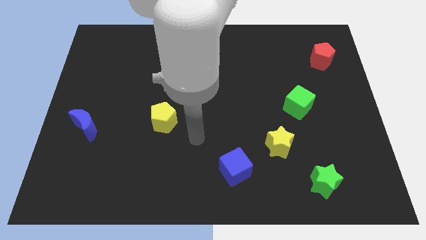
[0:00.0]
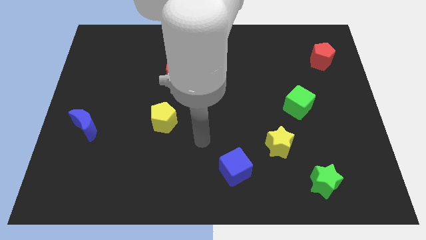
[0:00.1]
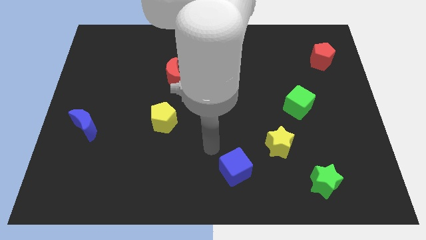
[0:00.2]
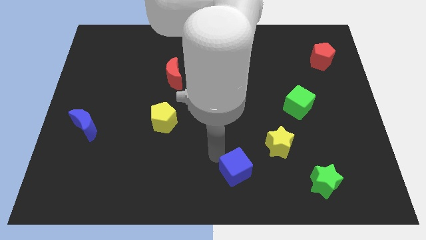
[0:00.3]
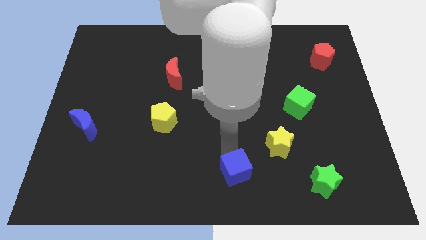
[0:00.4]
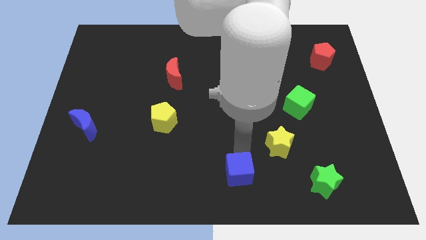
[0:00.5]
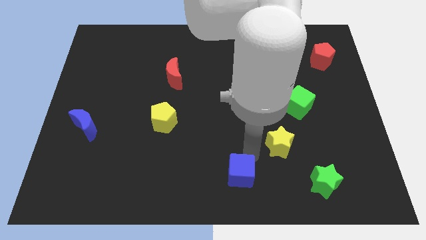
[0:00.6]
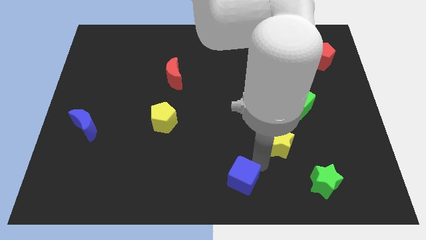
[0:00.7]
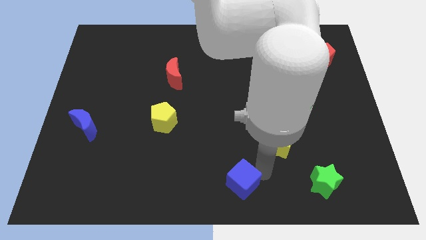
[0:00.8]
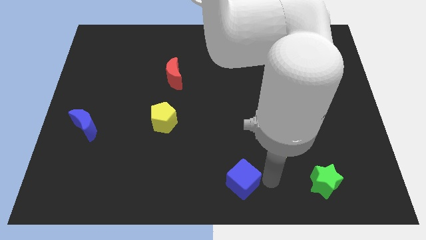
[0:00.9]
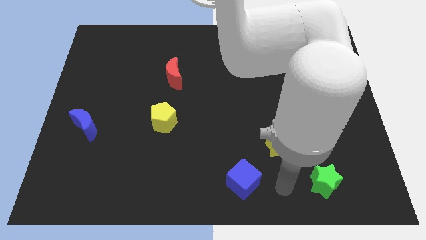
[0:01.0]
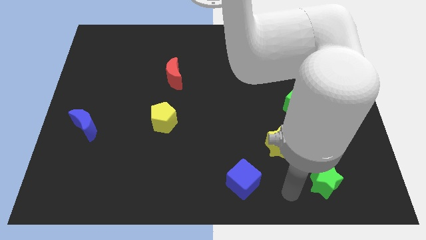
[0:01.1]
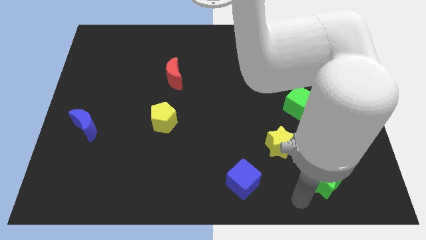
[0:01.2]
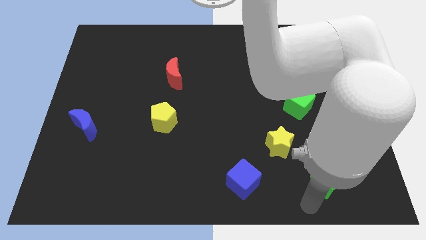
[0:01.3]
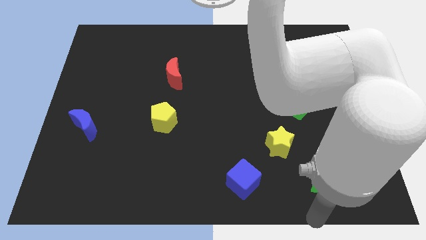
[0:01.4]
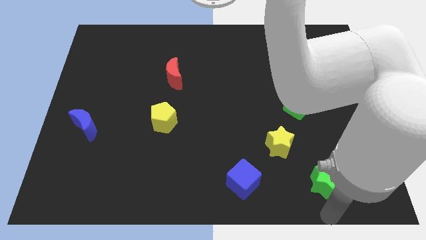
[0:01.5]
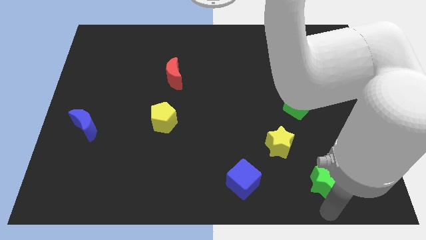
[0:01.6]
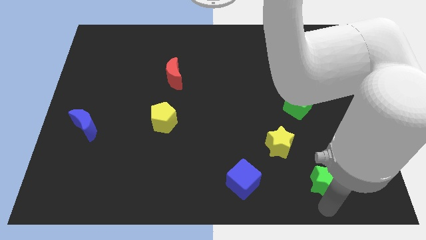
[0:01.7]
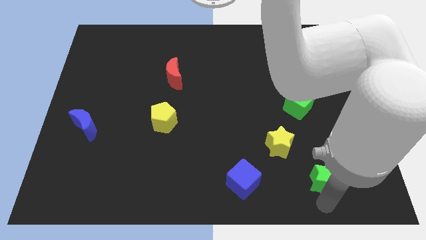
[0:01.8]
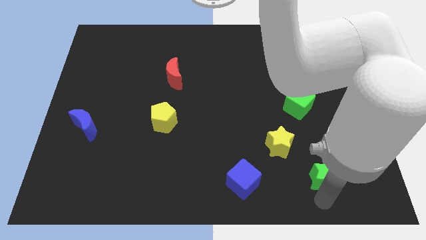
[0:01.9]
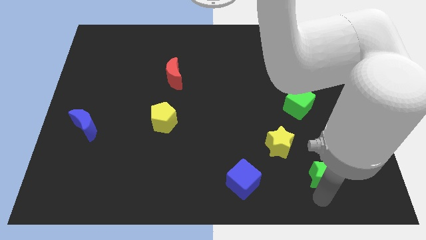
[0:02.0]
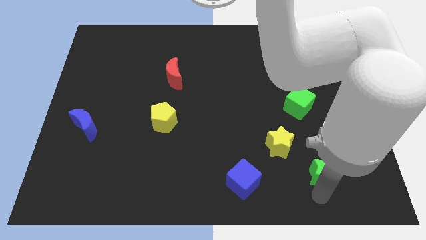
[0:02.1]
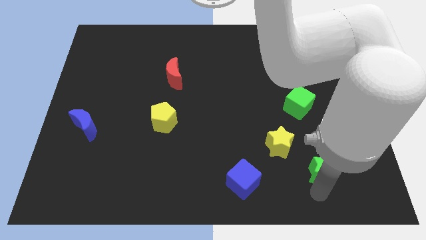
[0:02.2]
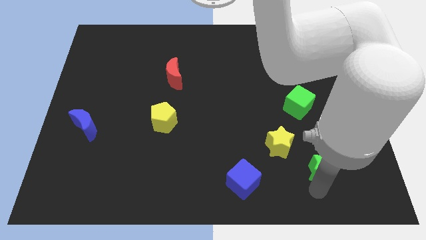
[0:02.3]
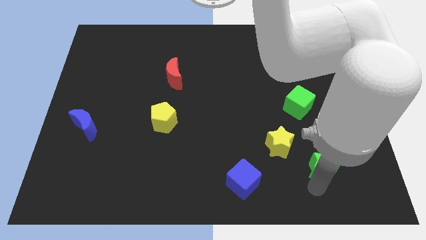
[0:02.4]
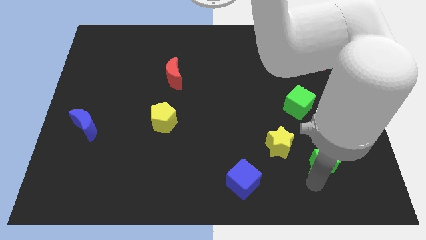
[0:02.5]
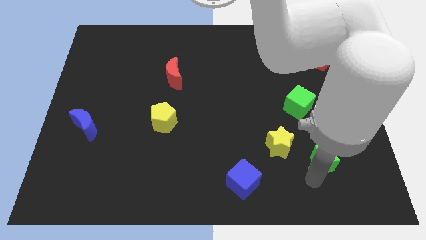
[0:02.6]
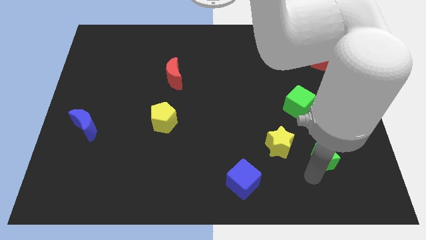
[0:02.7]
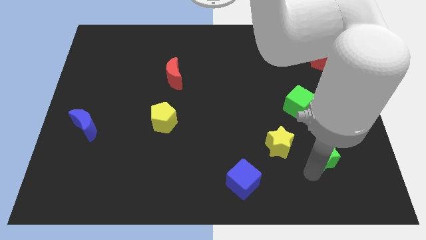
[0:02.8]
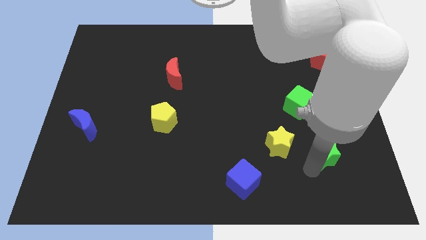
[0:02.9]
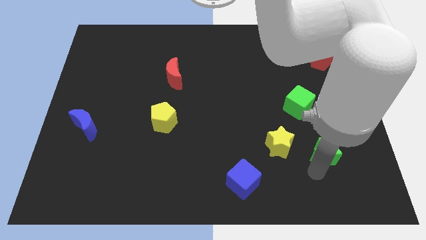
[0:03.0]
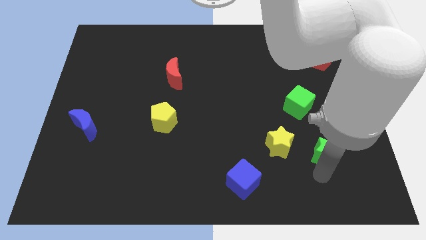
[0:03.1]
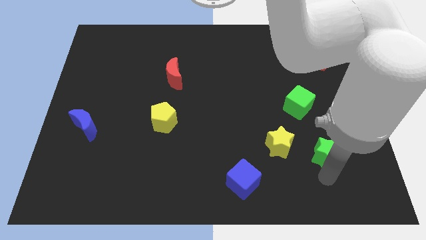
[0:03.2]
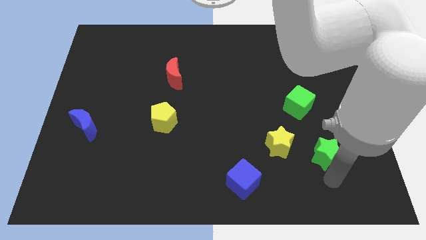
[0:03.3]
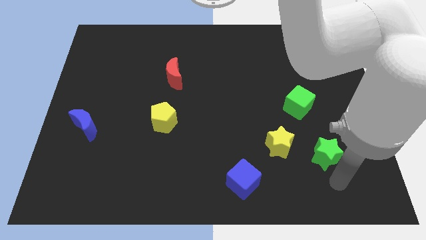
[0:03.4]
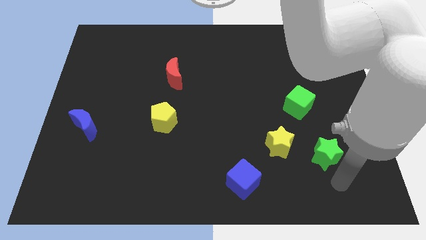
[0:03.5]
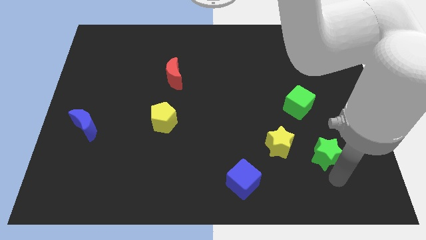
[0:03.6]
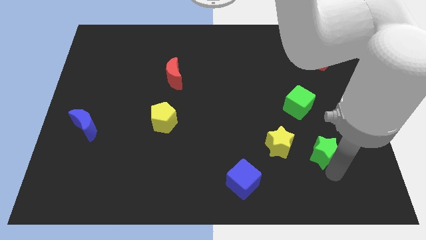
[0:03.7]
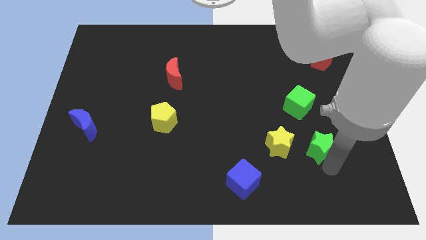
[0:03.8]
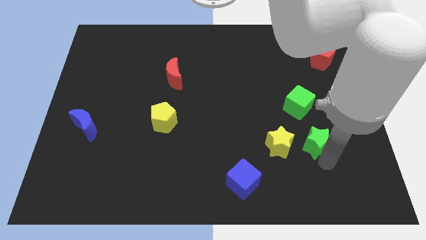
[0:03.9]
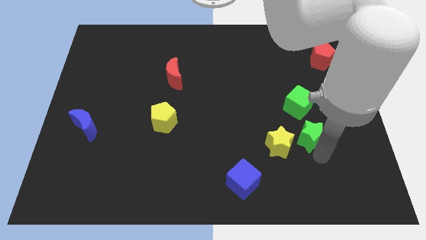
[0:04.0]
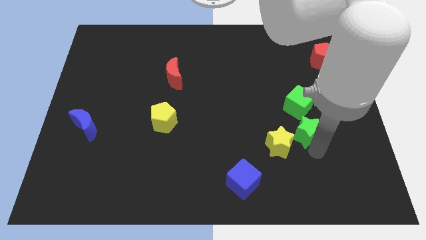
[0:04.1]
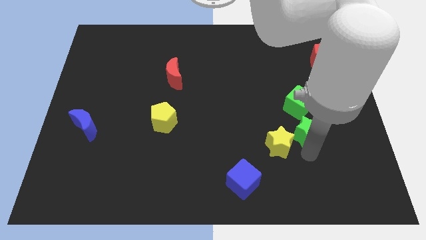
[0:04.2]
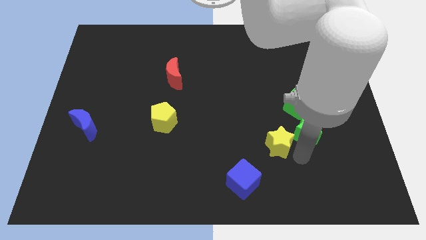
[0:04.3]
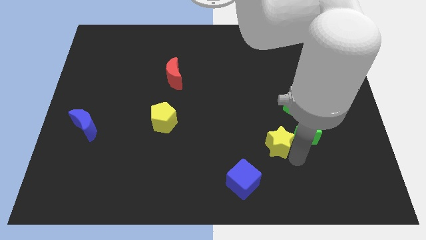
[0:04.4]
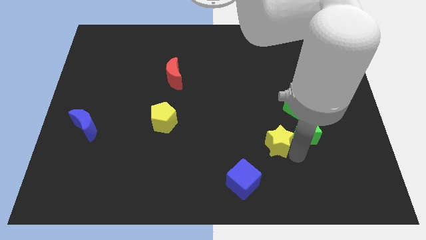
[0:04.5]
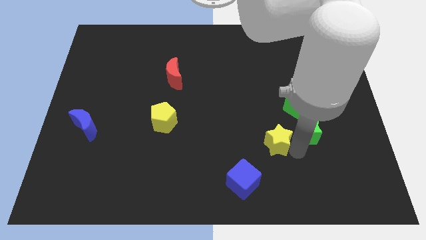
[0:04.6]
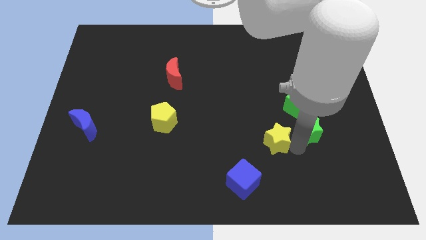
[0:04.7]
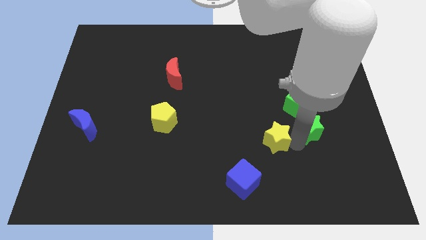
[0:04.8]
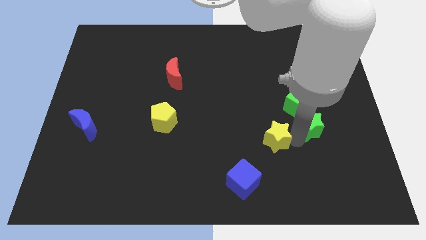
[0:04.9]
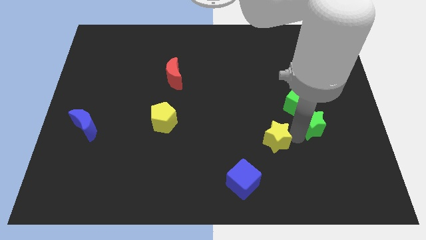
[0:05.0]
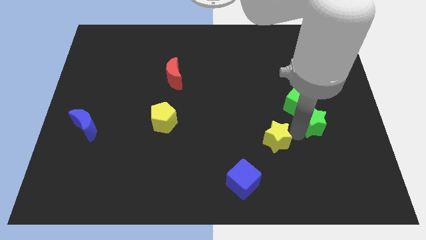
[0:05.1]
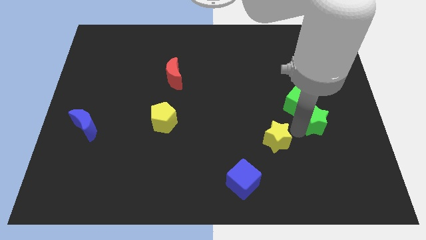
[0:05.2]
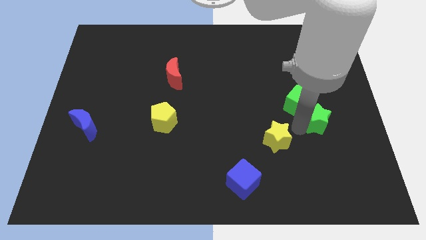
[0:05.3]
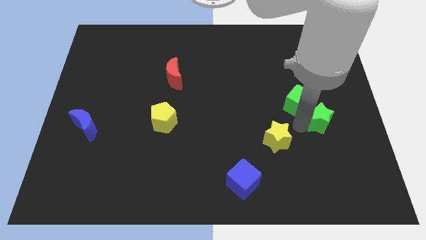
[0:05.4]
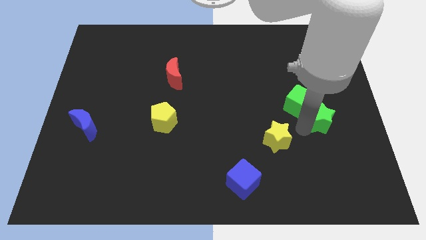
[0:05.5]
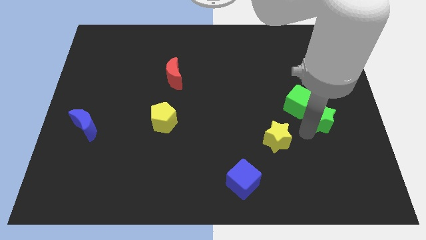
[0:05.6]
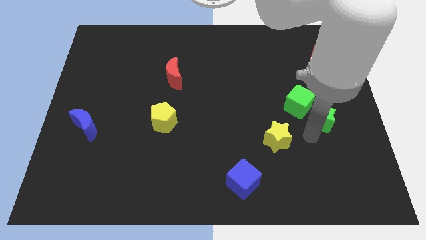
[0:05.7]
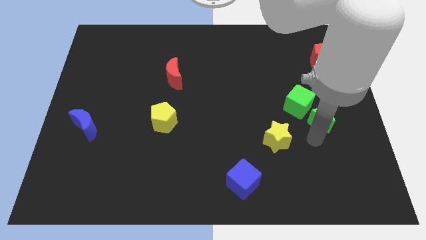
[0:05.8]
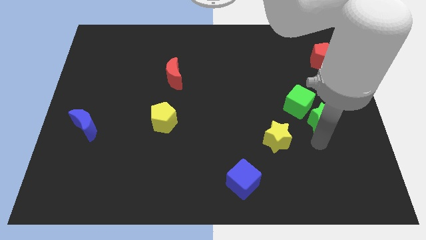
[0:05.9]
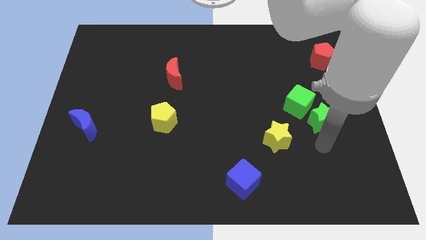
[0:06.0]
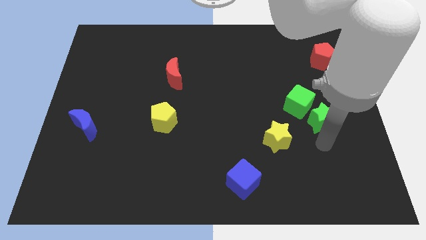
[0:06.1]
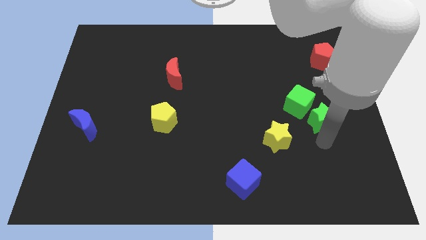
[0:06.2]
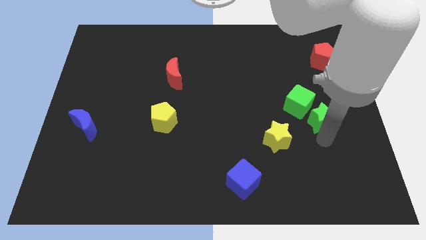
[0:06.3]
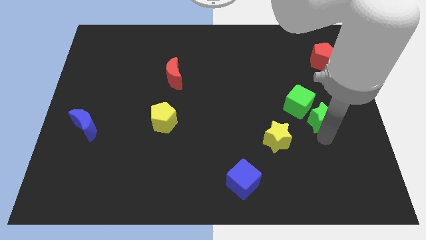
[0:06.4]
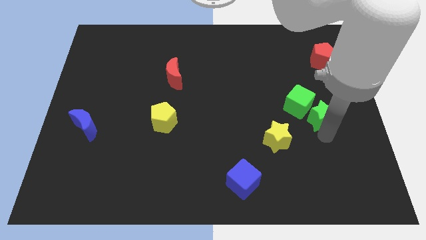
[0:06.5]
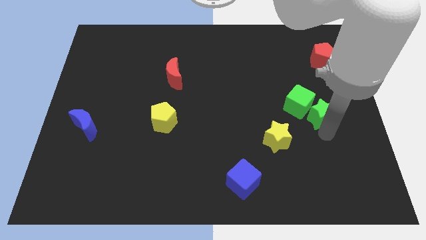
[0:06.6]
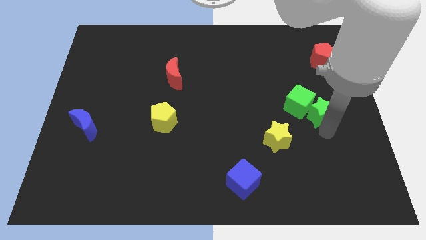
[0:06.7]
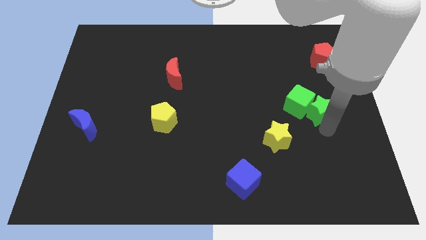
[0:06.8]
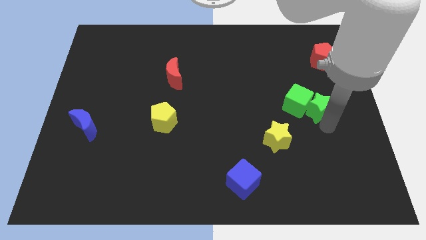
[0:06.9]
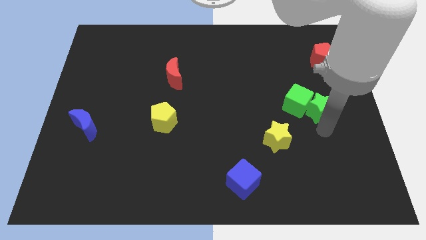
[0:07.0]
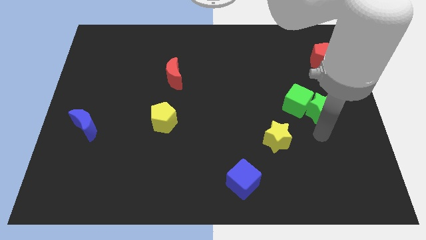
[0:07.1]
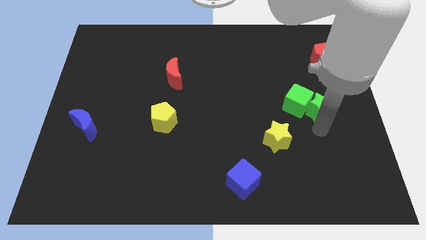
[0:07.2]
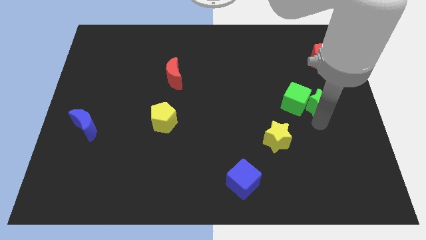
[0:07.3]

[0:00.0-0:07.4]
move the green star diagonally up and to the right of the green cube

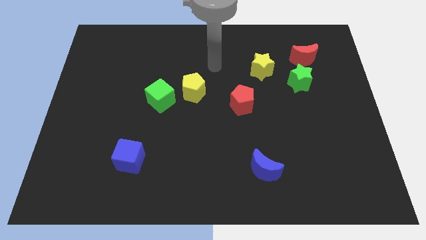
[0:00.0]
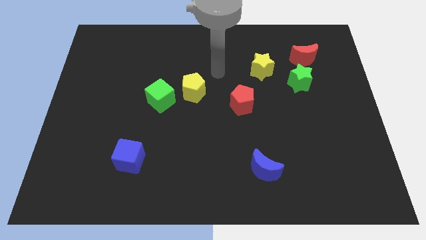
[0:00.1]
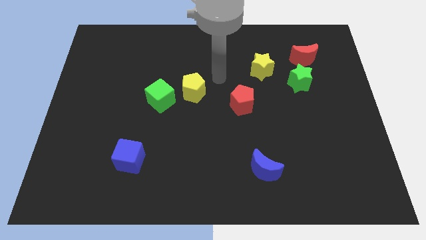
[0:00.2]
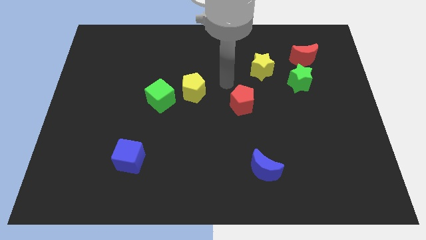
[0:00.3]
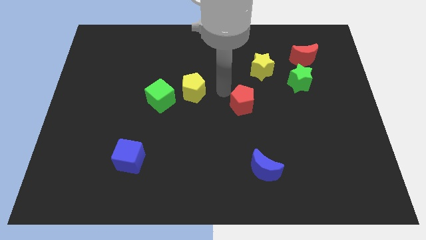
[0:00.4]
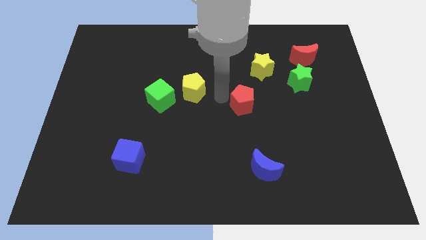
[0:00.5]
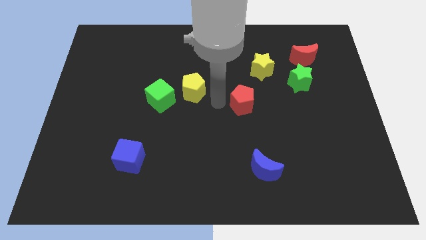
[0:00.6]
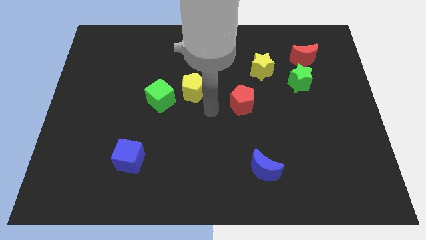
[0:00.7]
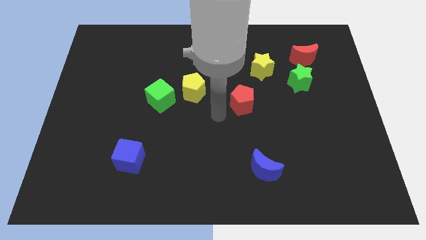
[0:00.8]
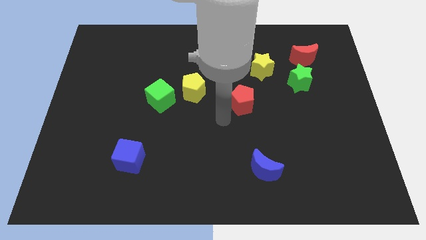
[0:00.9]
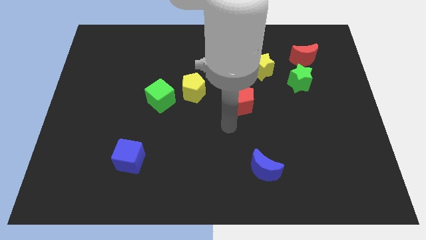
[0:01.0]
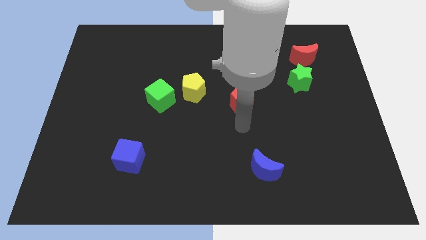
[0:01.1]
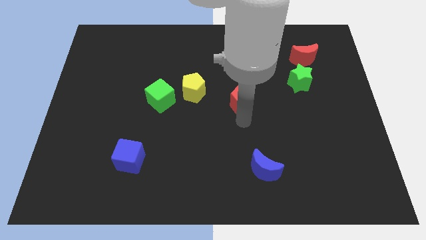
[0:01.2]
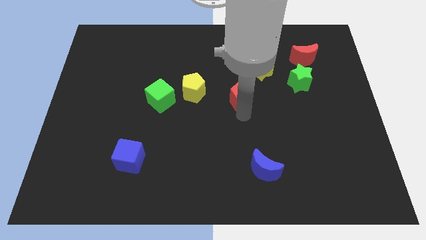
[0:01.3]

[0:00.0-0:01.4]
push the red pentagon diagonally down and to the left of the yellow star
